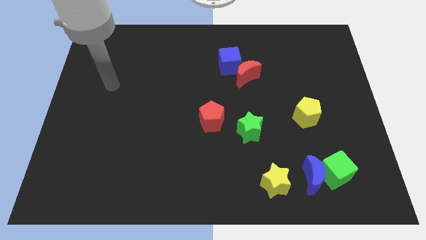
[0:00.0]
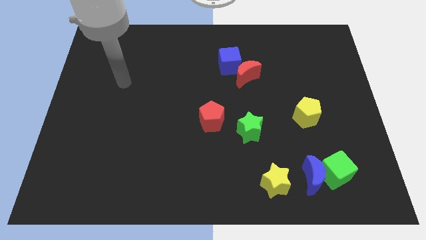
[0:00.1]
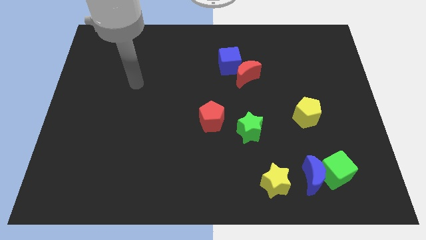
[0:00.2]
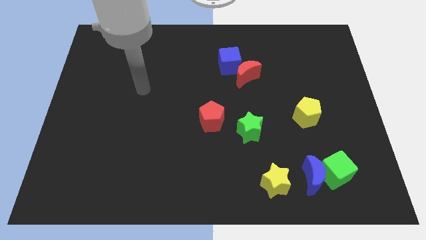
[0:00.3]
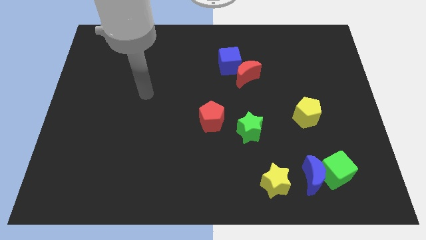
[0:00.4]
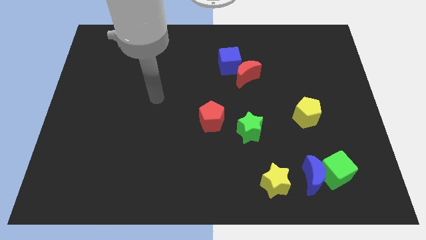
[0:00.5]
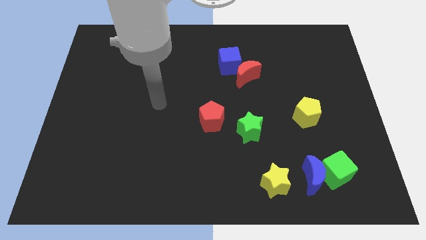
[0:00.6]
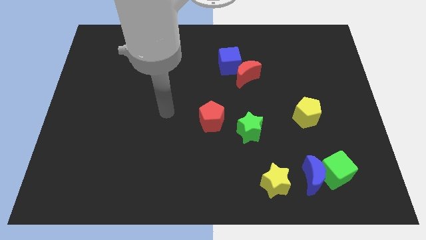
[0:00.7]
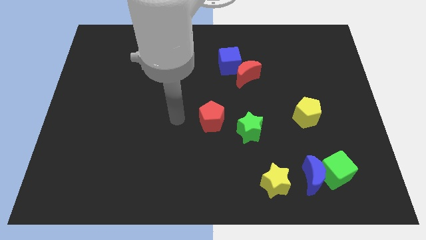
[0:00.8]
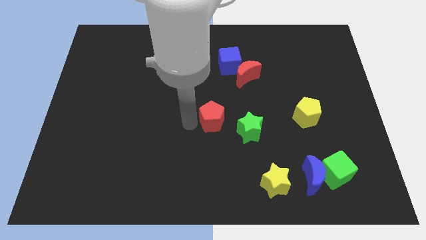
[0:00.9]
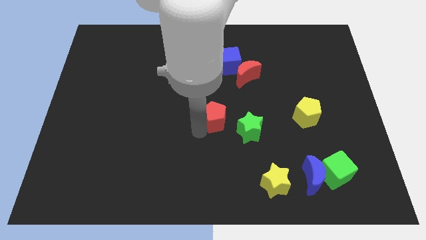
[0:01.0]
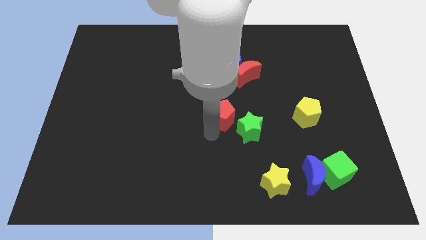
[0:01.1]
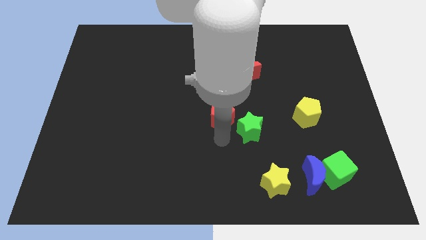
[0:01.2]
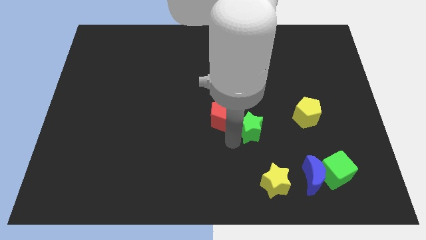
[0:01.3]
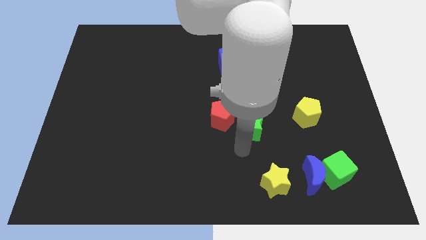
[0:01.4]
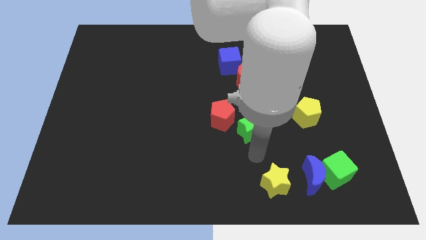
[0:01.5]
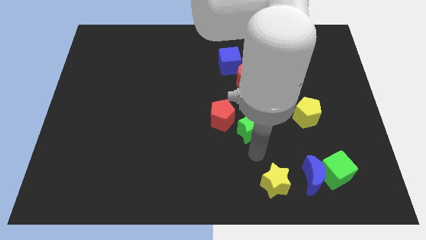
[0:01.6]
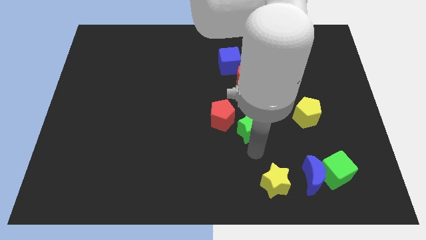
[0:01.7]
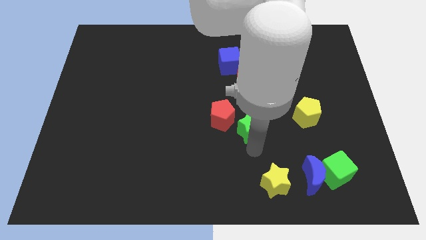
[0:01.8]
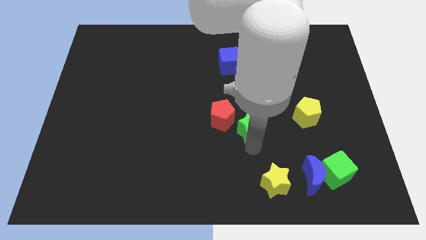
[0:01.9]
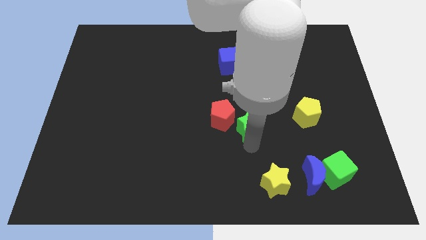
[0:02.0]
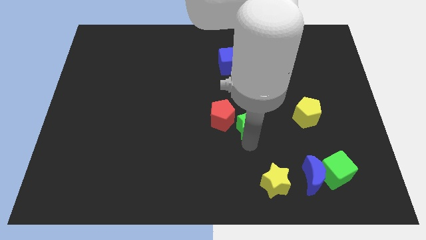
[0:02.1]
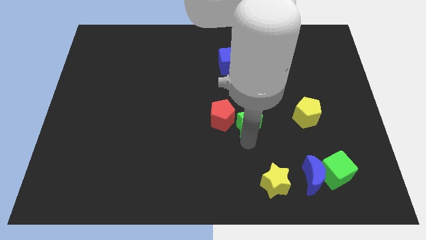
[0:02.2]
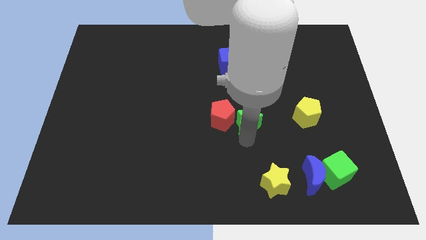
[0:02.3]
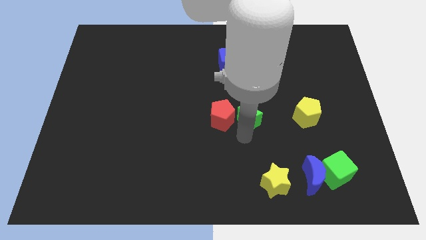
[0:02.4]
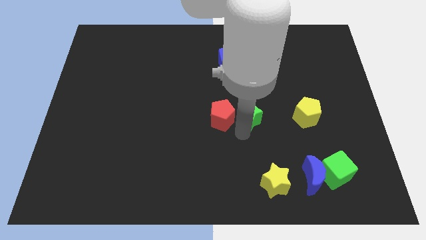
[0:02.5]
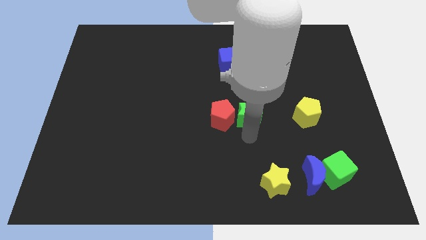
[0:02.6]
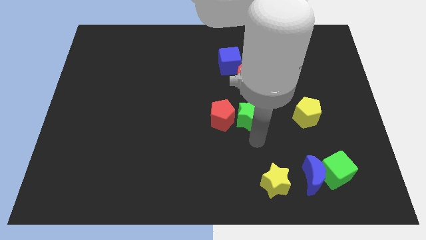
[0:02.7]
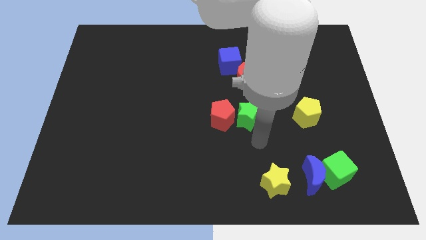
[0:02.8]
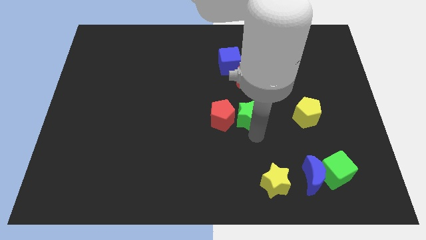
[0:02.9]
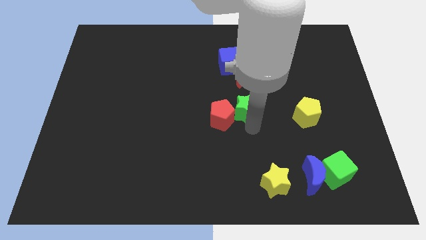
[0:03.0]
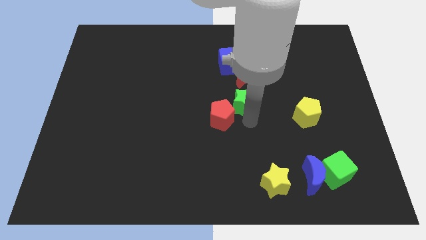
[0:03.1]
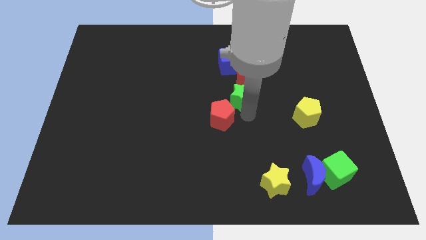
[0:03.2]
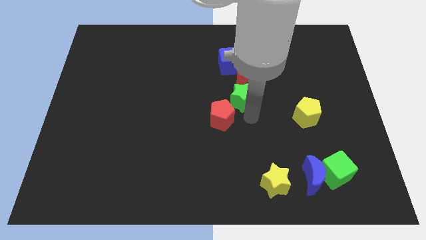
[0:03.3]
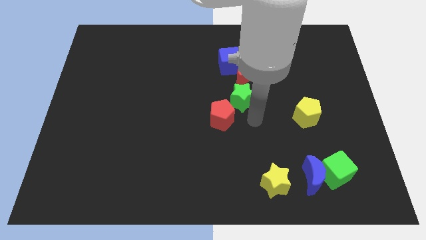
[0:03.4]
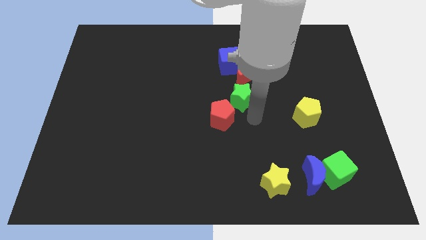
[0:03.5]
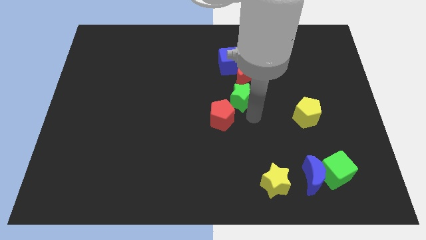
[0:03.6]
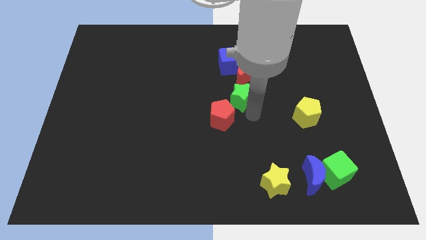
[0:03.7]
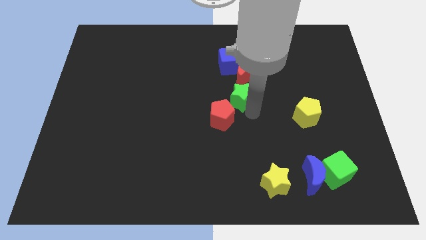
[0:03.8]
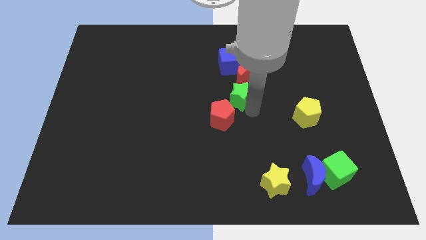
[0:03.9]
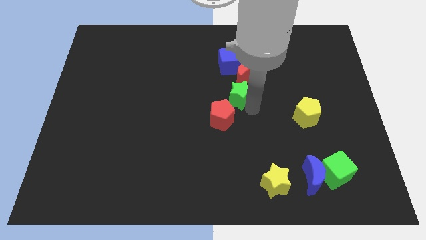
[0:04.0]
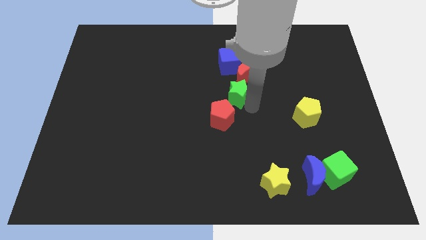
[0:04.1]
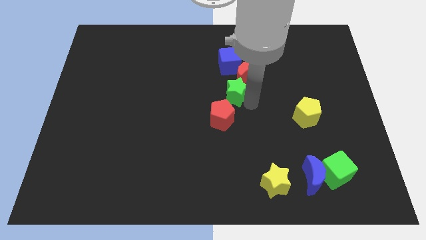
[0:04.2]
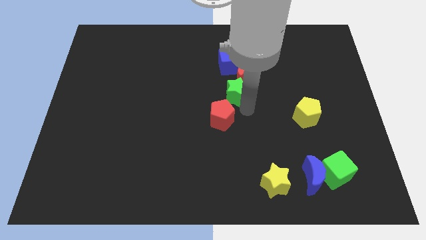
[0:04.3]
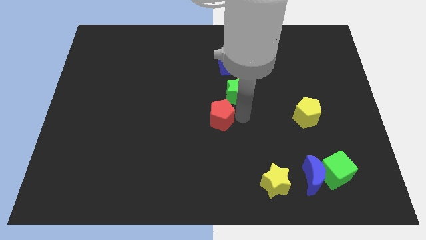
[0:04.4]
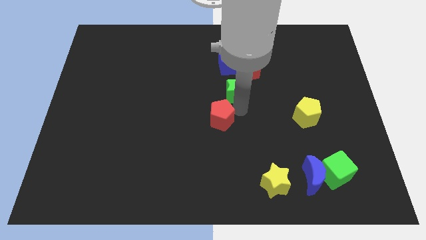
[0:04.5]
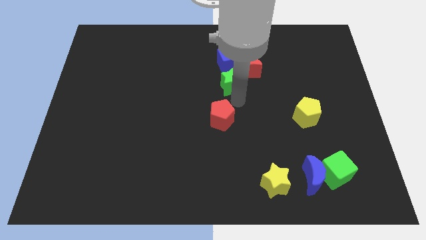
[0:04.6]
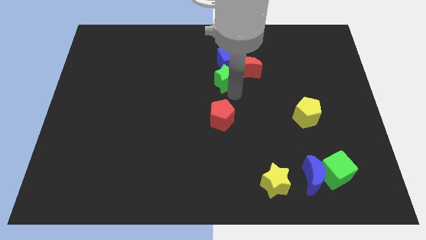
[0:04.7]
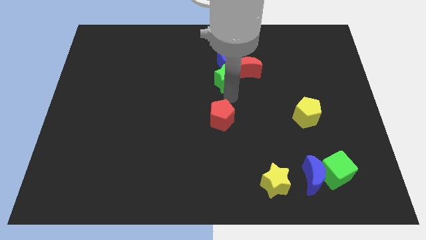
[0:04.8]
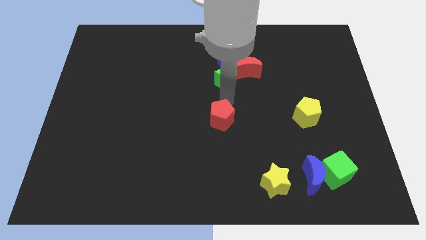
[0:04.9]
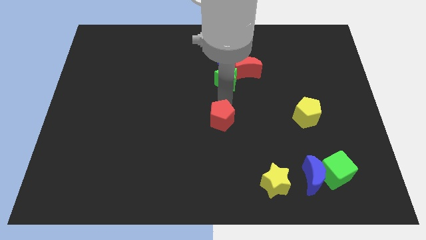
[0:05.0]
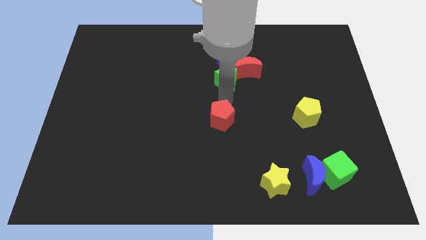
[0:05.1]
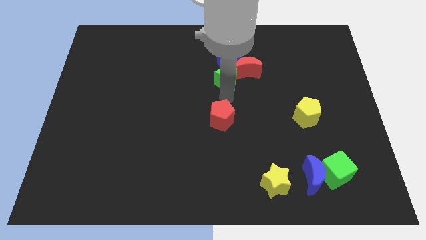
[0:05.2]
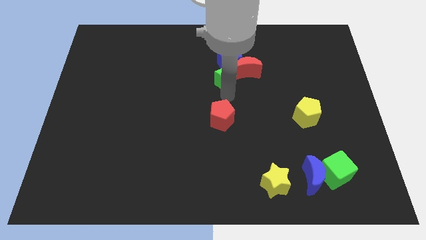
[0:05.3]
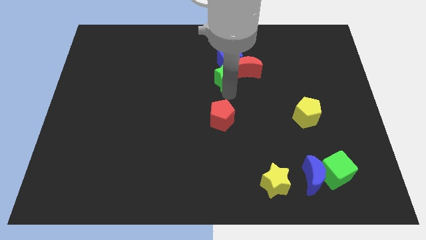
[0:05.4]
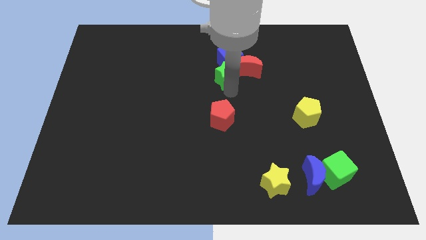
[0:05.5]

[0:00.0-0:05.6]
put the green star to the blue cube

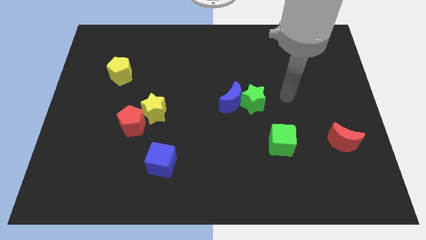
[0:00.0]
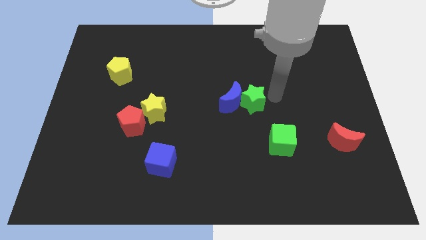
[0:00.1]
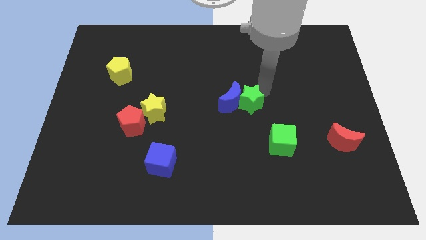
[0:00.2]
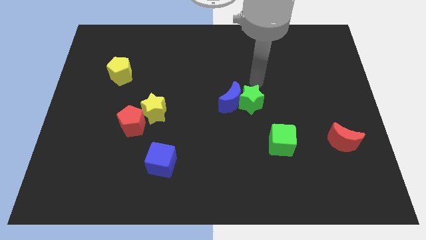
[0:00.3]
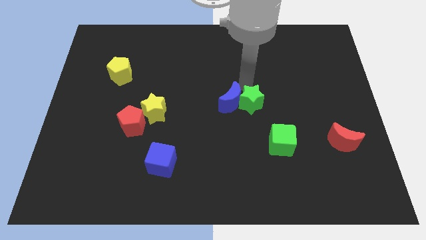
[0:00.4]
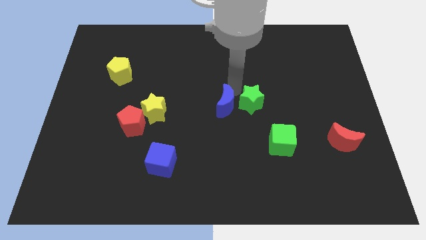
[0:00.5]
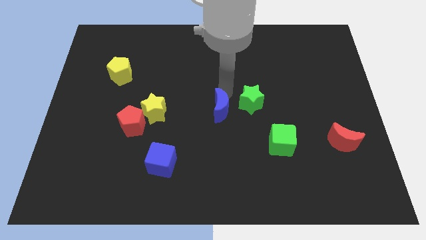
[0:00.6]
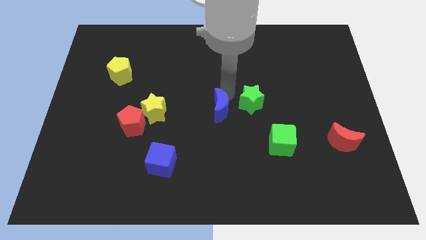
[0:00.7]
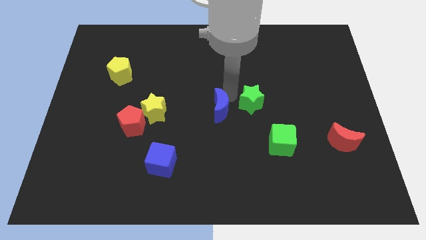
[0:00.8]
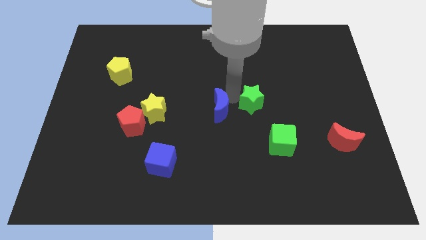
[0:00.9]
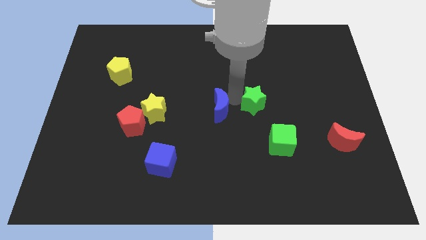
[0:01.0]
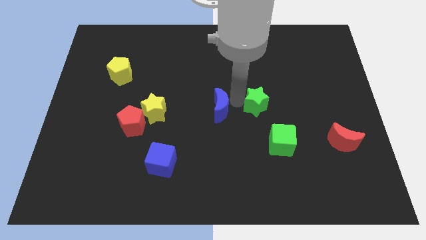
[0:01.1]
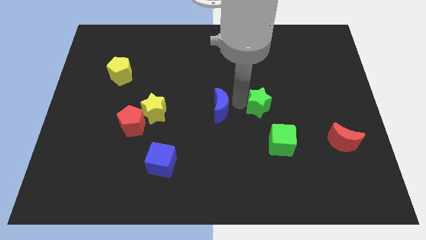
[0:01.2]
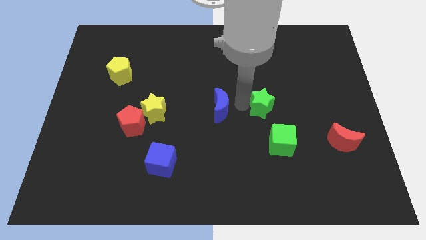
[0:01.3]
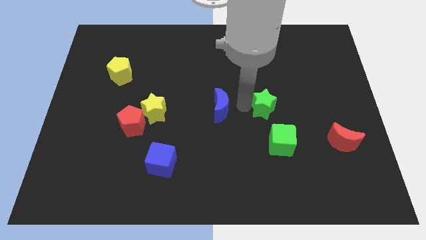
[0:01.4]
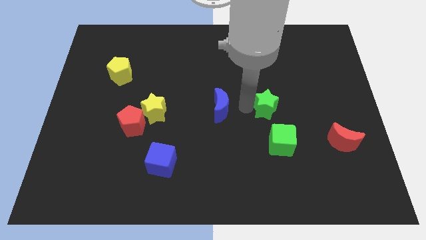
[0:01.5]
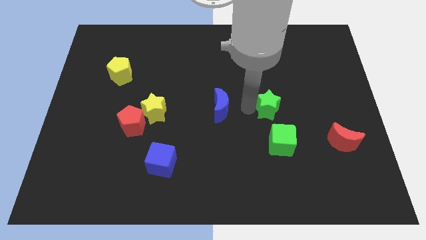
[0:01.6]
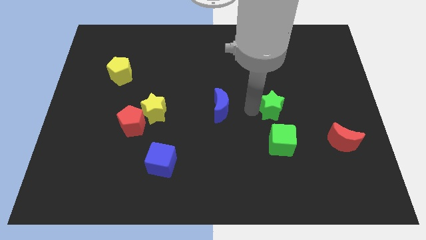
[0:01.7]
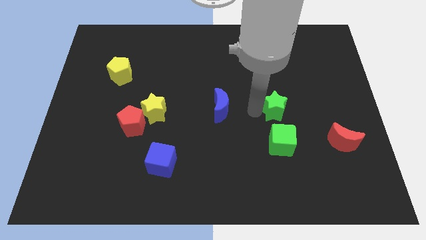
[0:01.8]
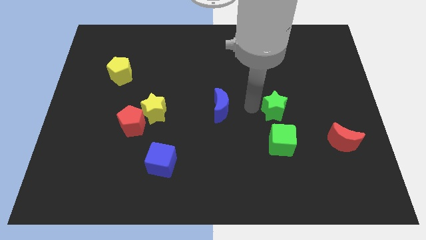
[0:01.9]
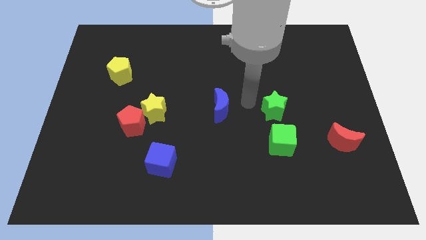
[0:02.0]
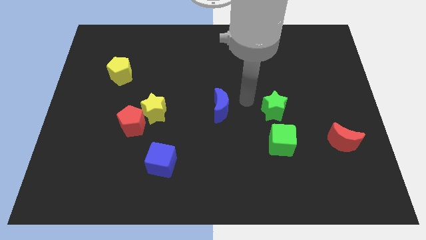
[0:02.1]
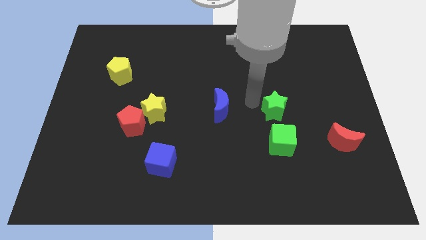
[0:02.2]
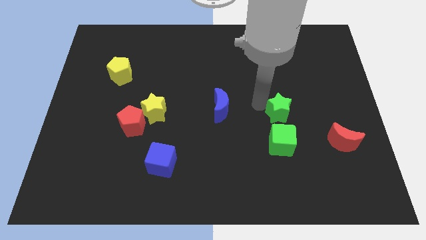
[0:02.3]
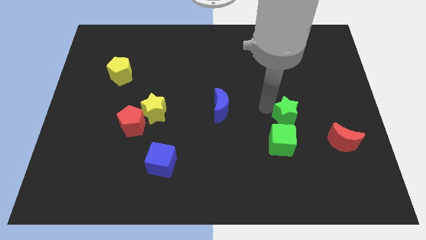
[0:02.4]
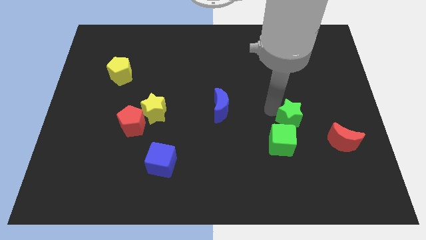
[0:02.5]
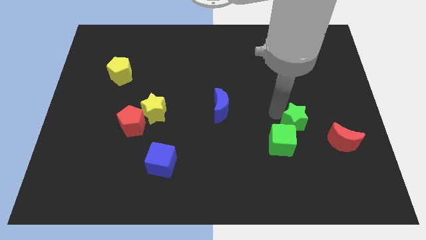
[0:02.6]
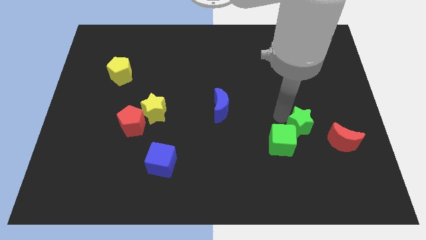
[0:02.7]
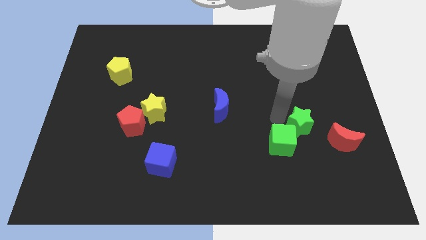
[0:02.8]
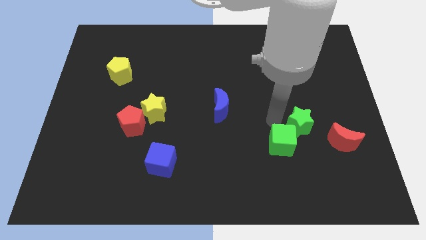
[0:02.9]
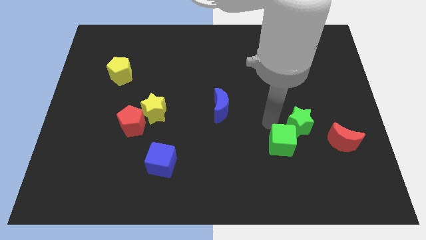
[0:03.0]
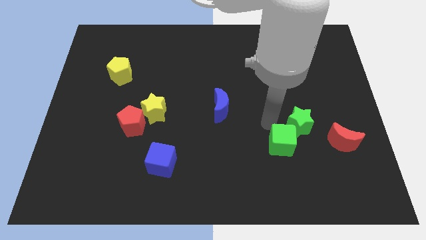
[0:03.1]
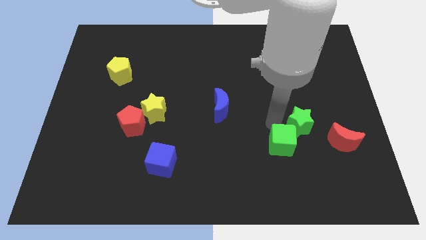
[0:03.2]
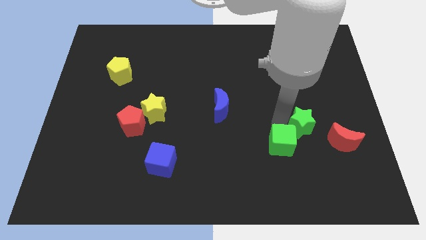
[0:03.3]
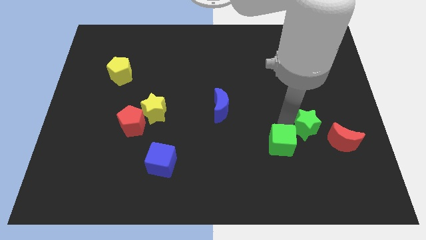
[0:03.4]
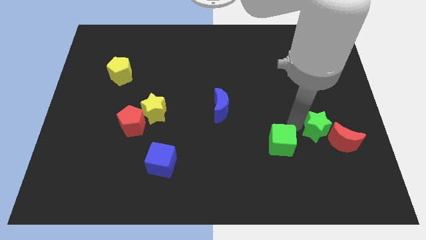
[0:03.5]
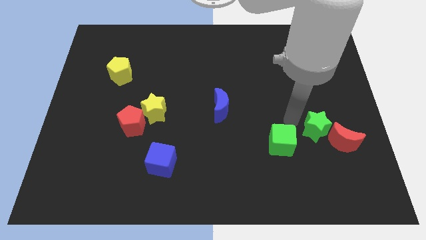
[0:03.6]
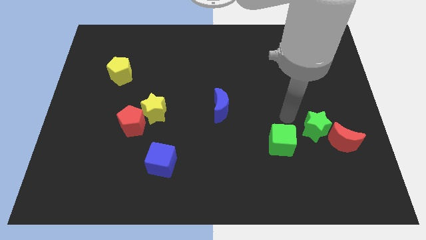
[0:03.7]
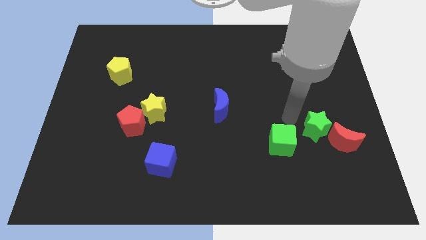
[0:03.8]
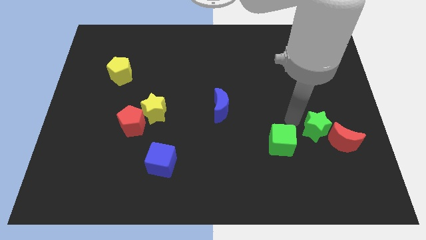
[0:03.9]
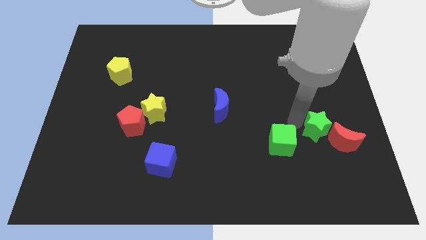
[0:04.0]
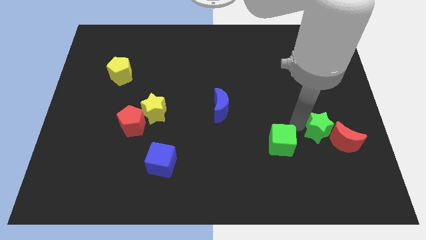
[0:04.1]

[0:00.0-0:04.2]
push the green star to the red moon
